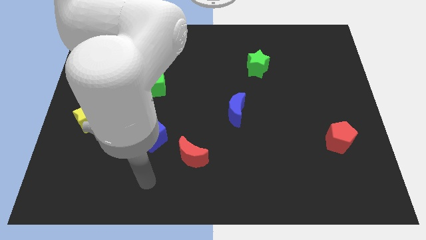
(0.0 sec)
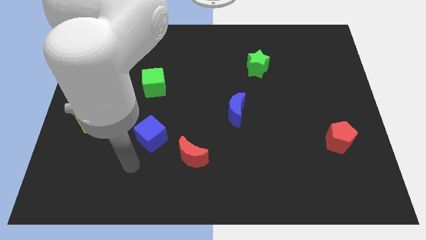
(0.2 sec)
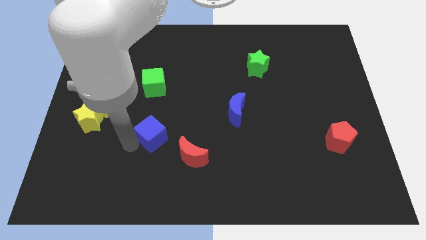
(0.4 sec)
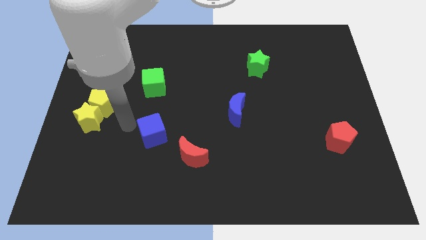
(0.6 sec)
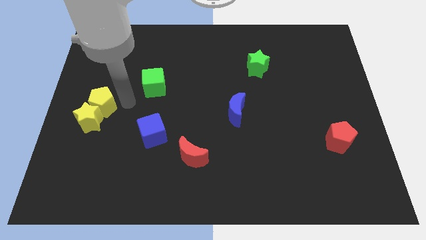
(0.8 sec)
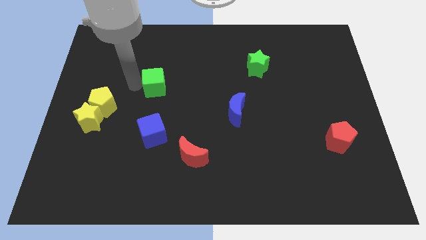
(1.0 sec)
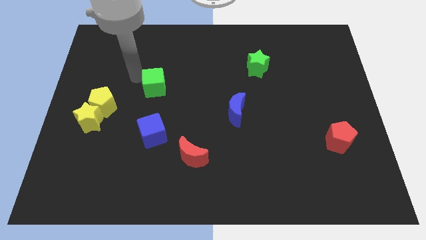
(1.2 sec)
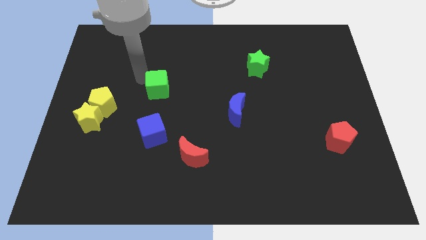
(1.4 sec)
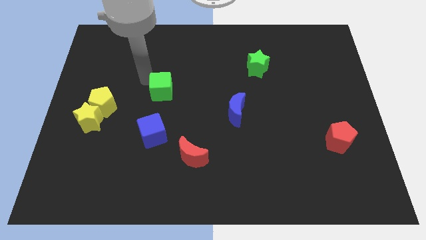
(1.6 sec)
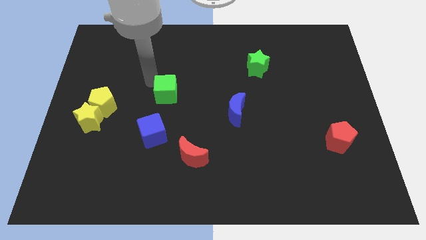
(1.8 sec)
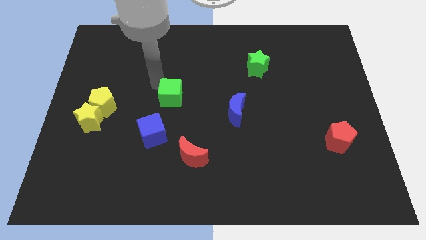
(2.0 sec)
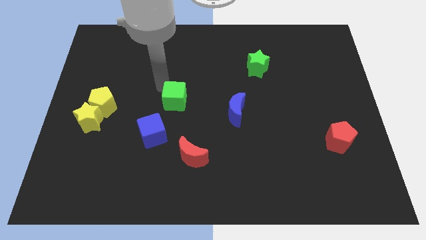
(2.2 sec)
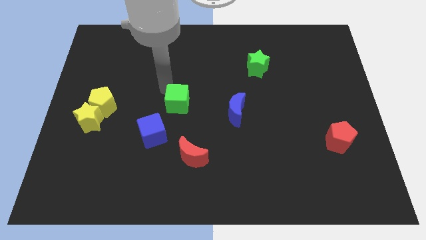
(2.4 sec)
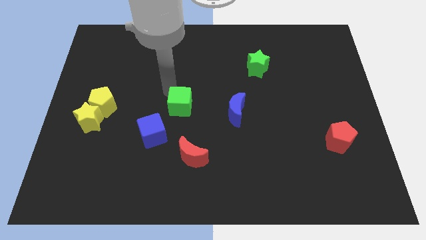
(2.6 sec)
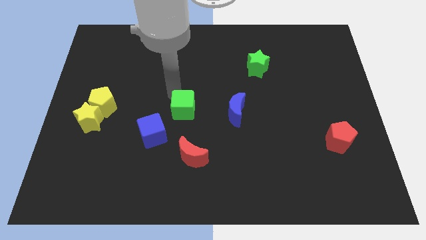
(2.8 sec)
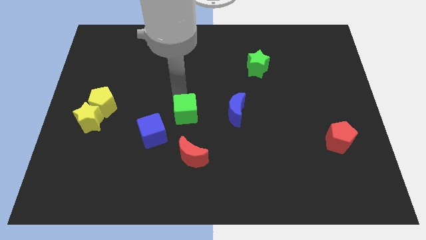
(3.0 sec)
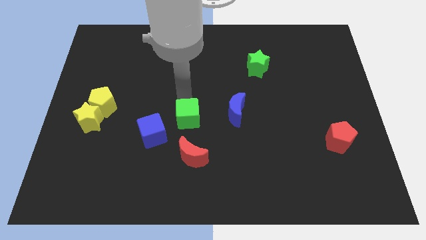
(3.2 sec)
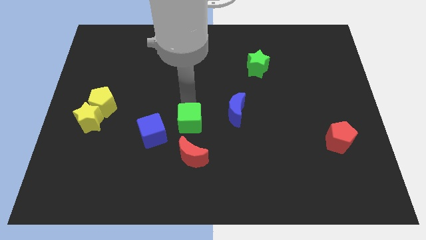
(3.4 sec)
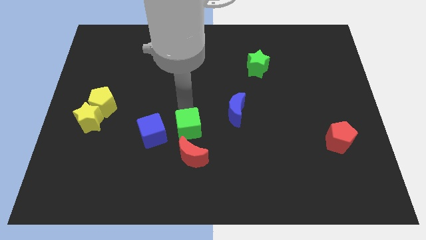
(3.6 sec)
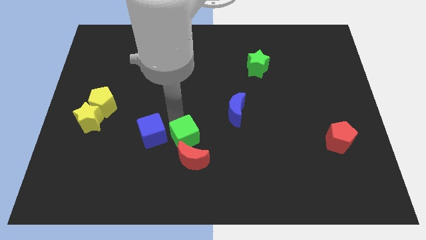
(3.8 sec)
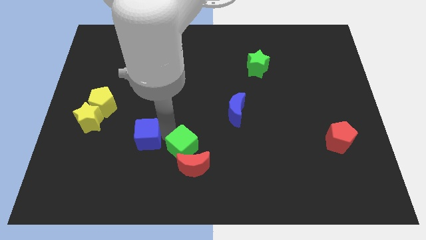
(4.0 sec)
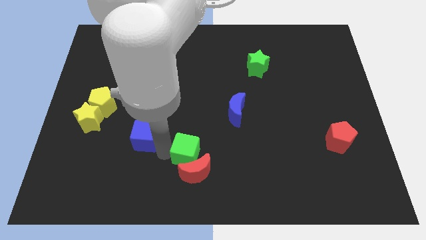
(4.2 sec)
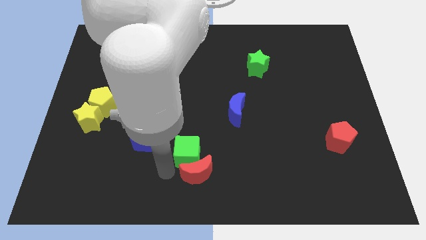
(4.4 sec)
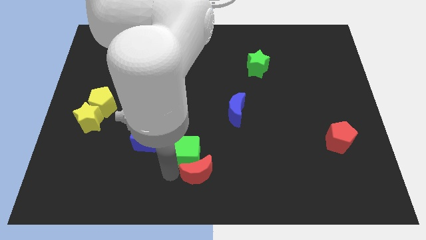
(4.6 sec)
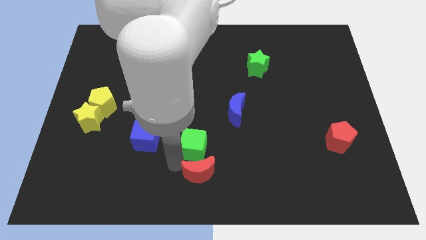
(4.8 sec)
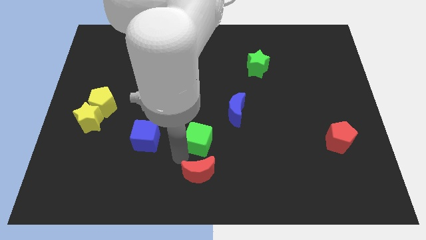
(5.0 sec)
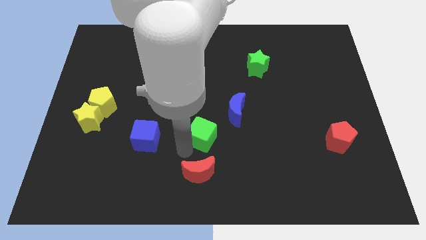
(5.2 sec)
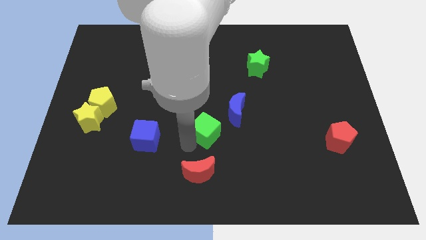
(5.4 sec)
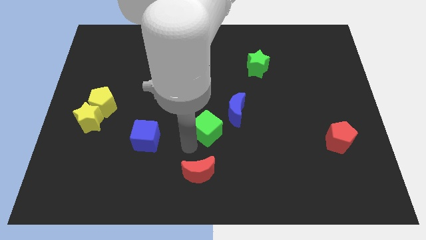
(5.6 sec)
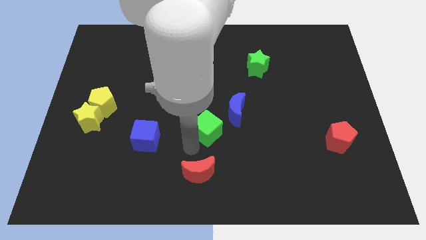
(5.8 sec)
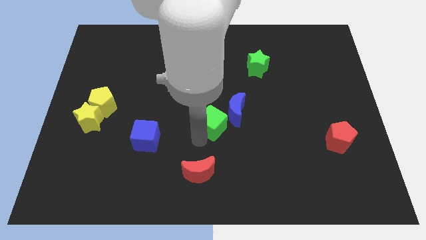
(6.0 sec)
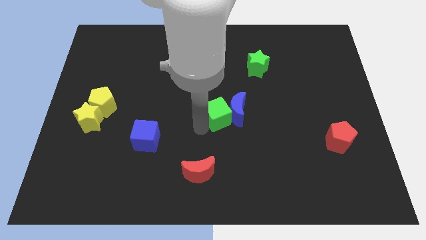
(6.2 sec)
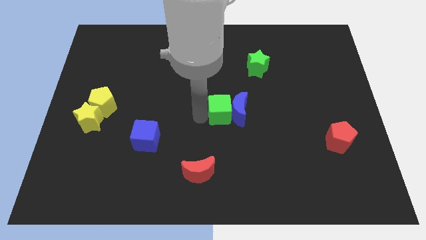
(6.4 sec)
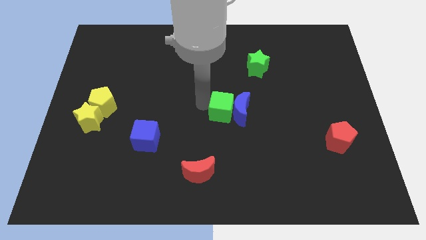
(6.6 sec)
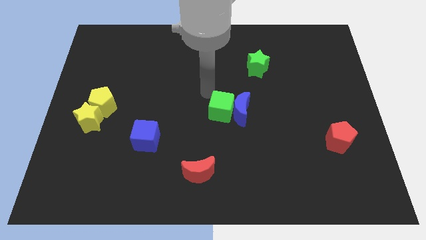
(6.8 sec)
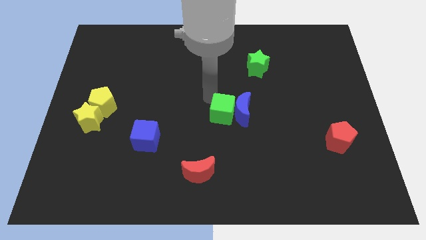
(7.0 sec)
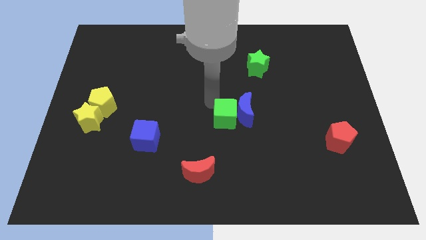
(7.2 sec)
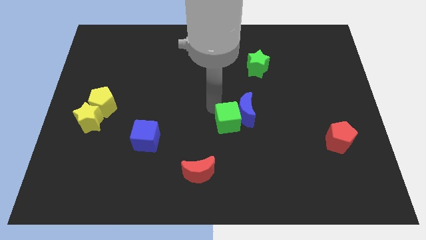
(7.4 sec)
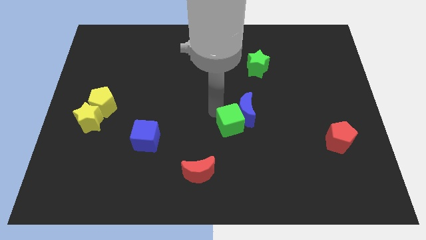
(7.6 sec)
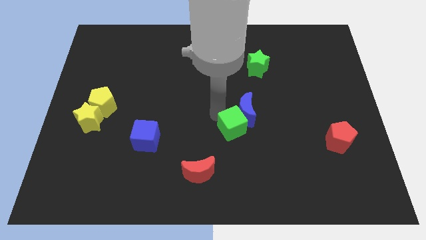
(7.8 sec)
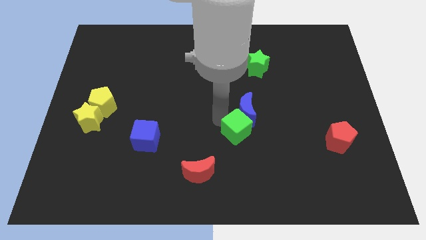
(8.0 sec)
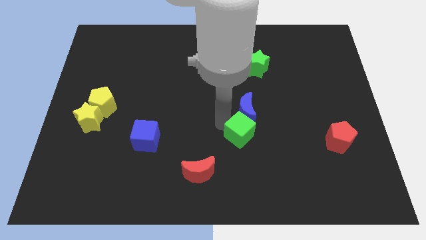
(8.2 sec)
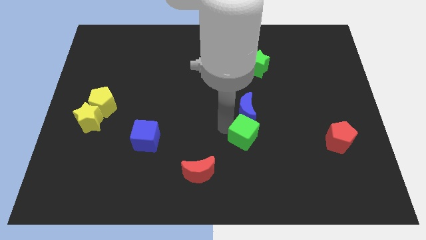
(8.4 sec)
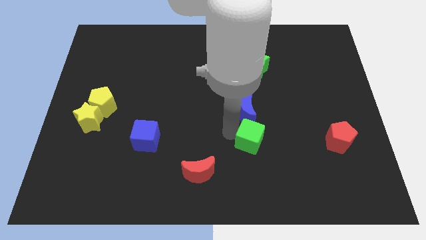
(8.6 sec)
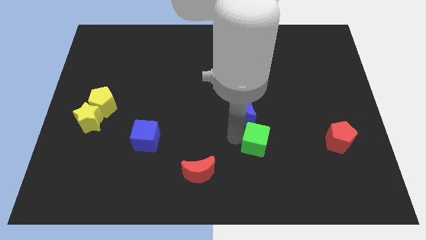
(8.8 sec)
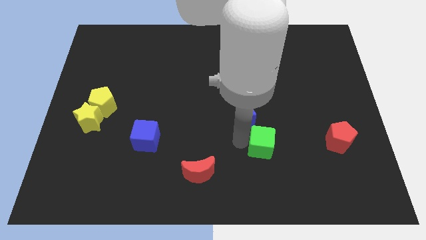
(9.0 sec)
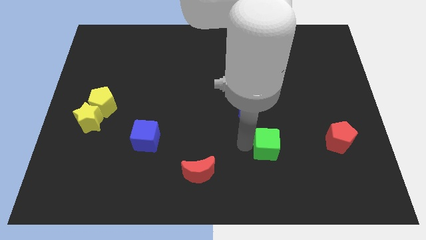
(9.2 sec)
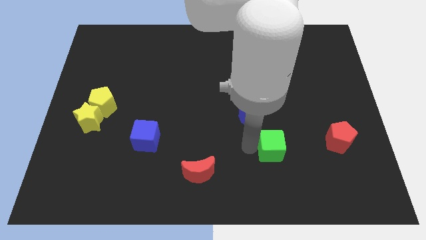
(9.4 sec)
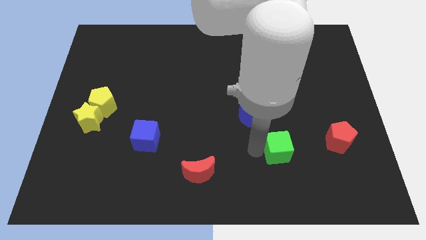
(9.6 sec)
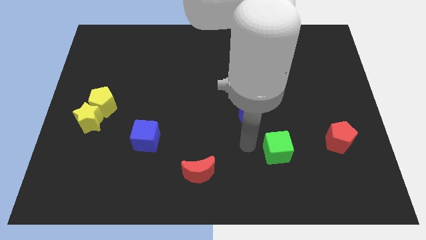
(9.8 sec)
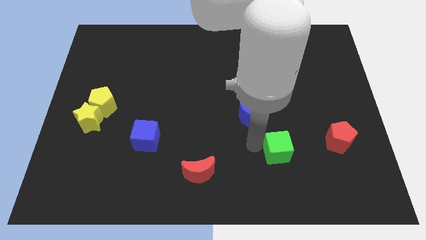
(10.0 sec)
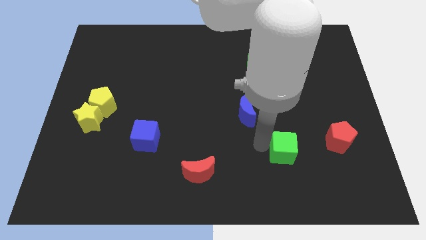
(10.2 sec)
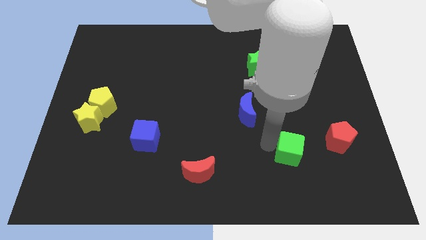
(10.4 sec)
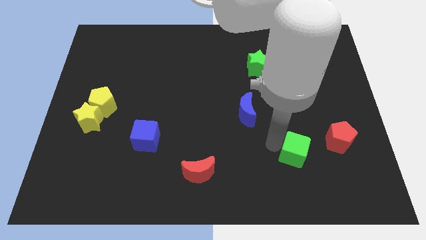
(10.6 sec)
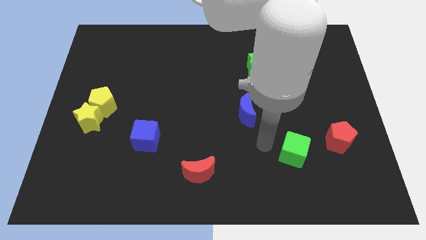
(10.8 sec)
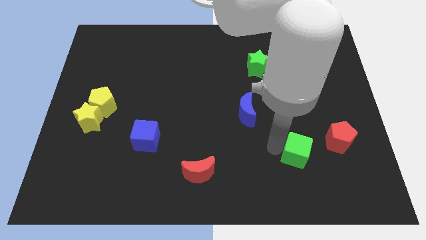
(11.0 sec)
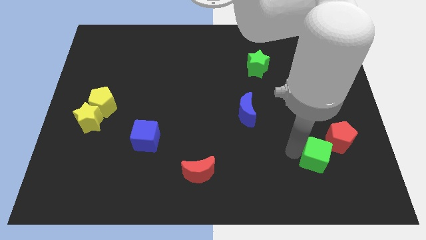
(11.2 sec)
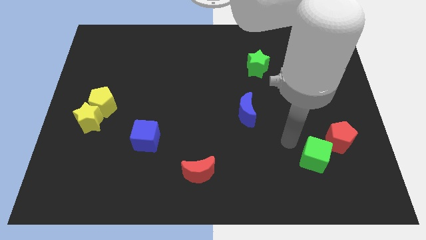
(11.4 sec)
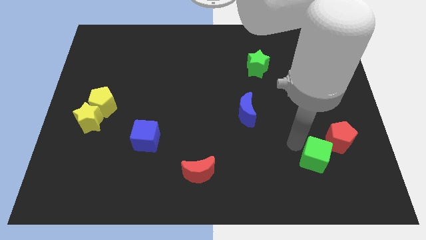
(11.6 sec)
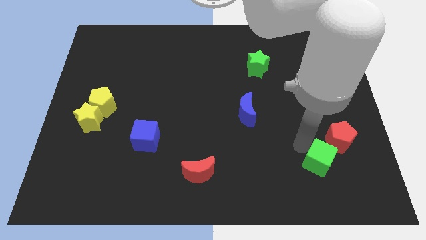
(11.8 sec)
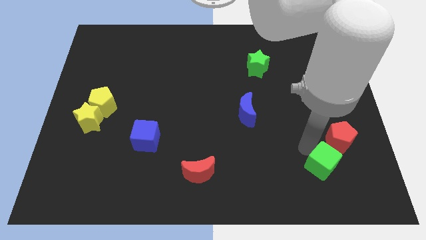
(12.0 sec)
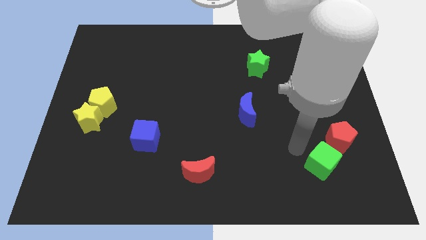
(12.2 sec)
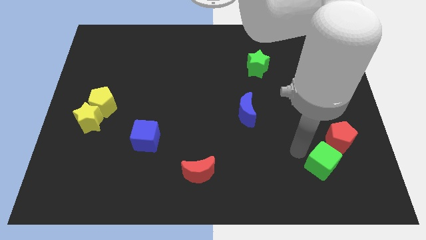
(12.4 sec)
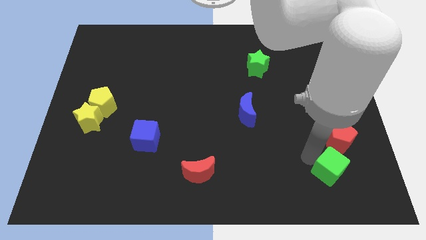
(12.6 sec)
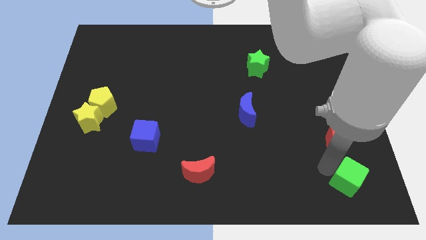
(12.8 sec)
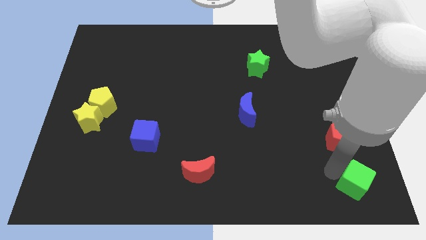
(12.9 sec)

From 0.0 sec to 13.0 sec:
push the green cube to the bottom right of the board

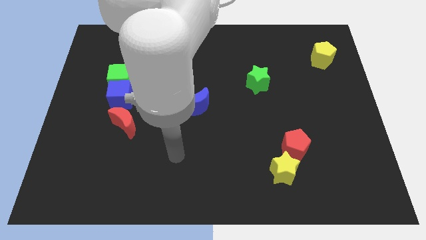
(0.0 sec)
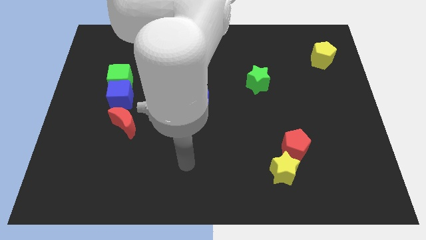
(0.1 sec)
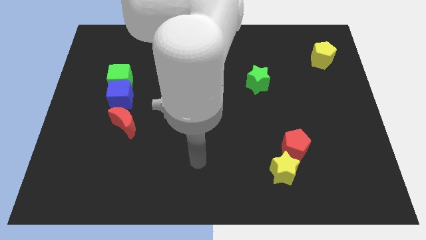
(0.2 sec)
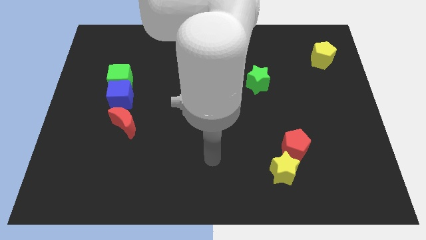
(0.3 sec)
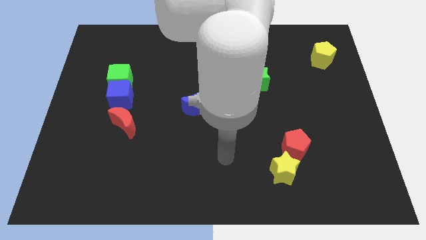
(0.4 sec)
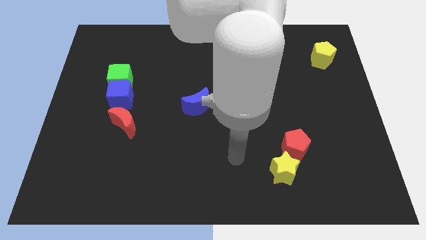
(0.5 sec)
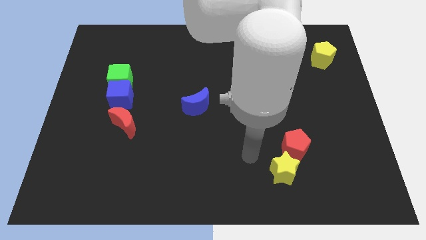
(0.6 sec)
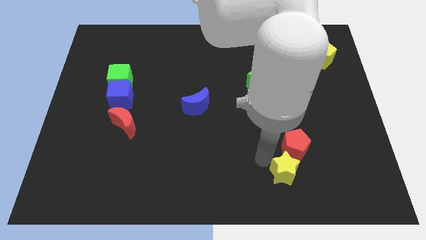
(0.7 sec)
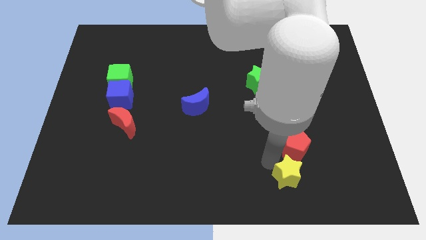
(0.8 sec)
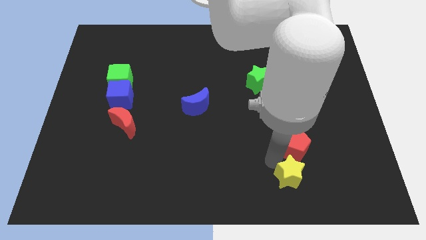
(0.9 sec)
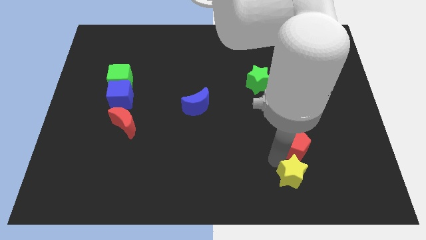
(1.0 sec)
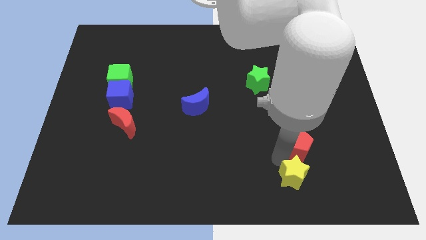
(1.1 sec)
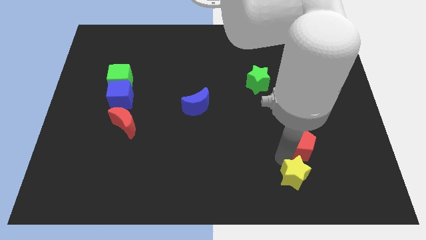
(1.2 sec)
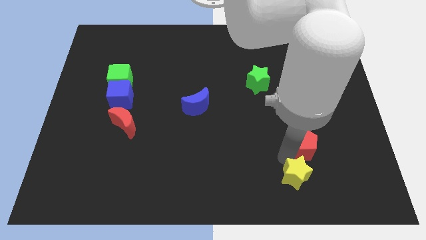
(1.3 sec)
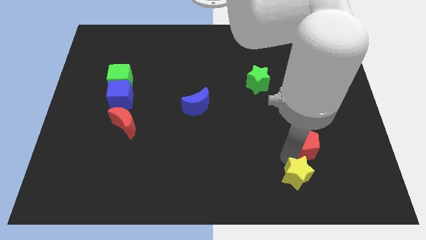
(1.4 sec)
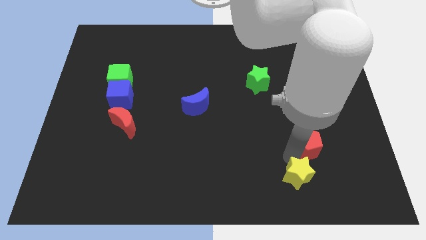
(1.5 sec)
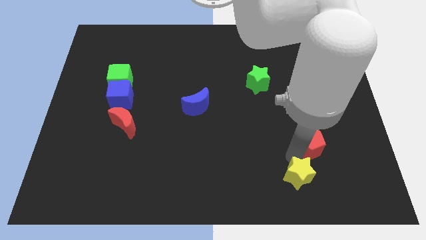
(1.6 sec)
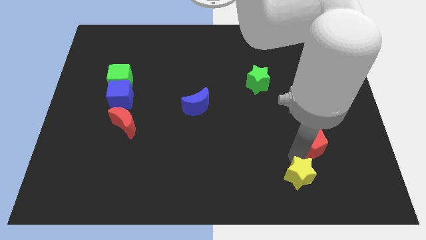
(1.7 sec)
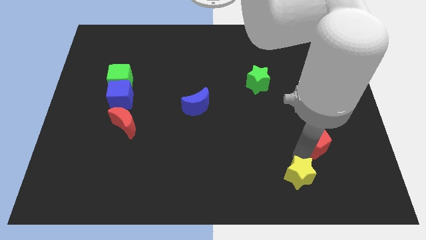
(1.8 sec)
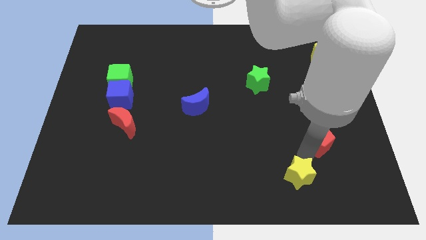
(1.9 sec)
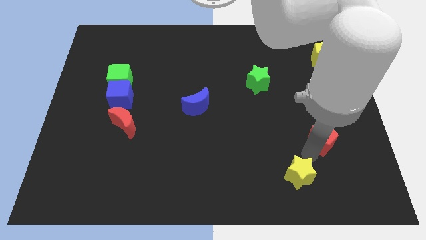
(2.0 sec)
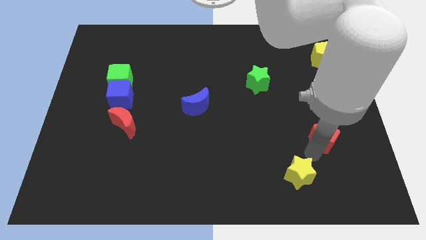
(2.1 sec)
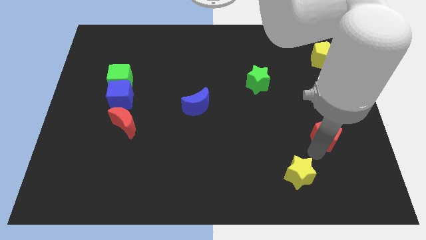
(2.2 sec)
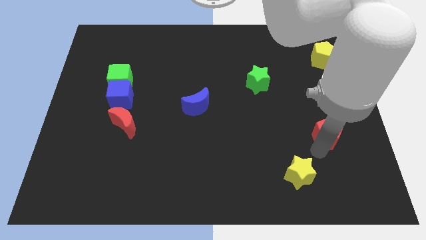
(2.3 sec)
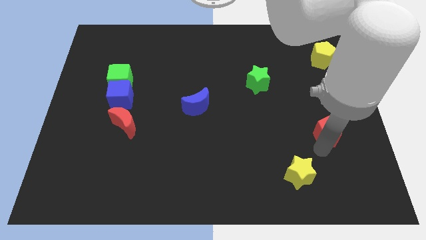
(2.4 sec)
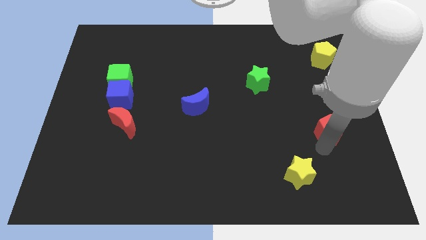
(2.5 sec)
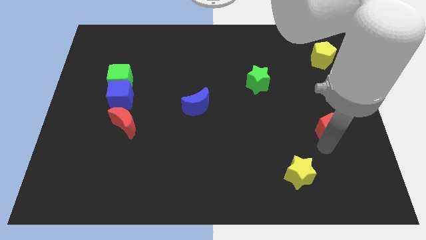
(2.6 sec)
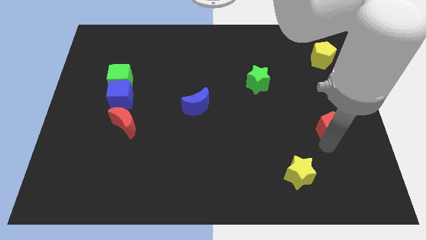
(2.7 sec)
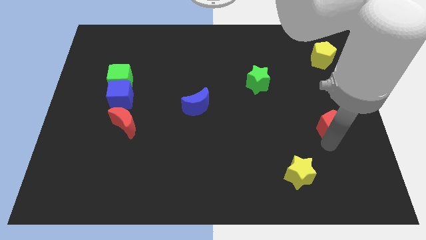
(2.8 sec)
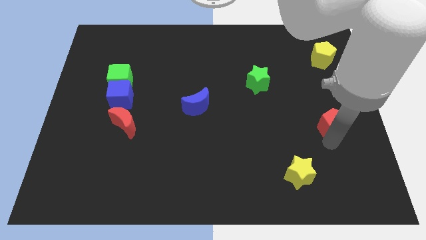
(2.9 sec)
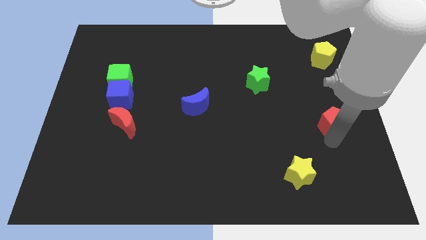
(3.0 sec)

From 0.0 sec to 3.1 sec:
push the red pentagon to the right side
